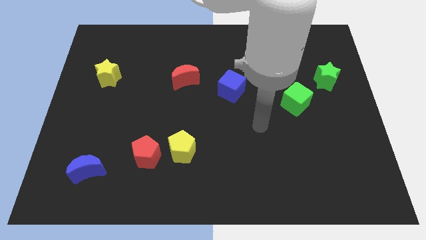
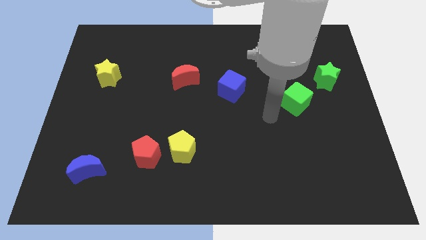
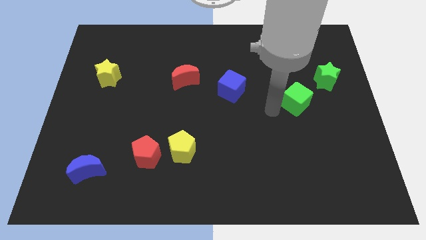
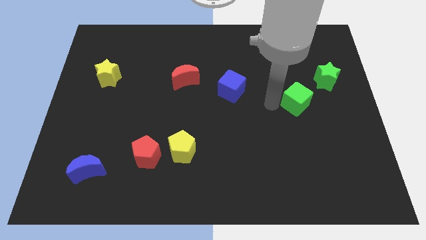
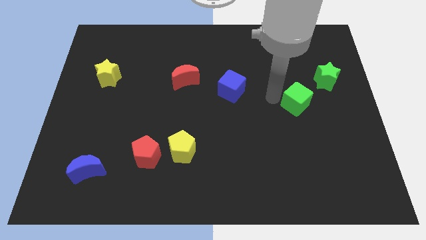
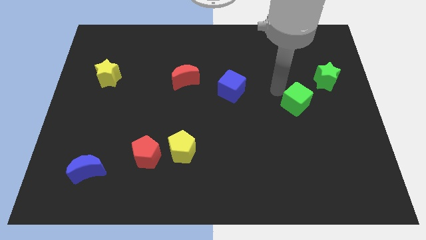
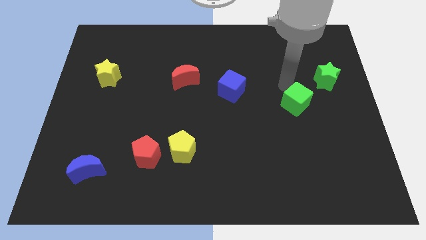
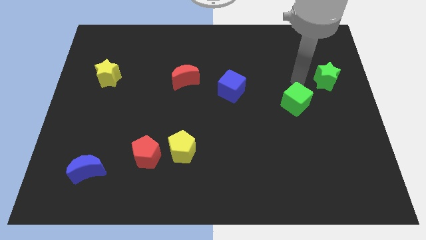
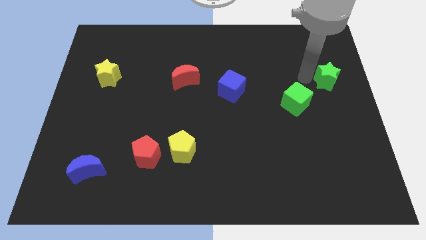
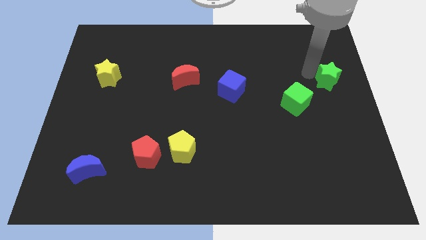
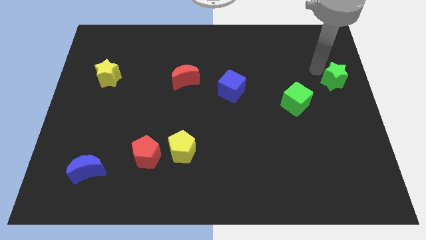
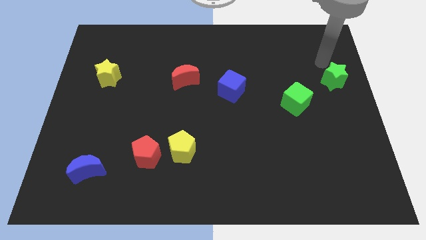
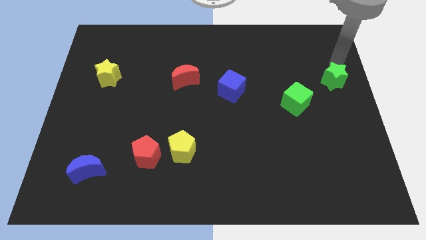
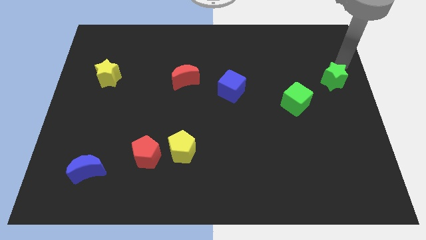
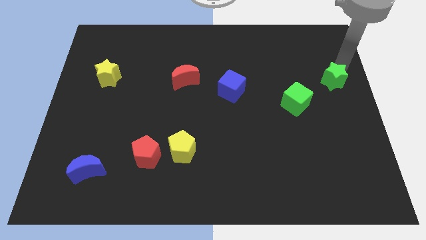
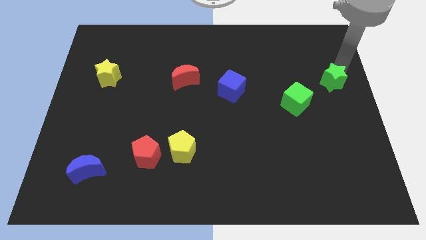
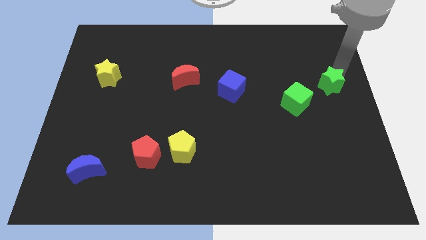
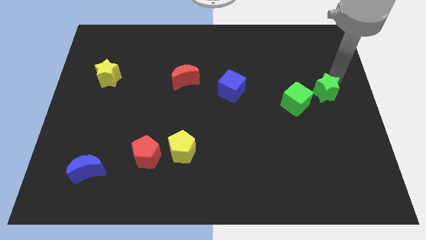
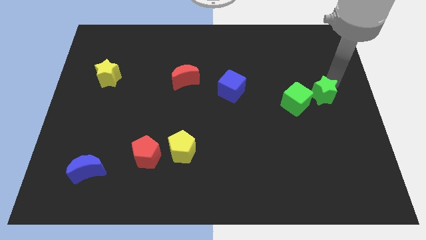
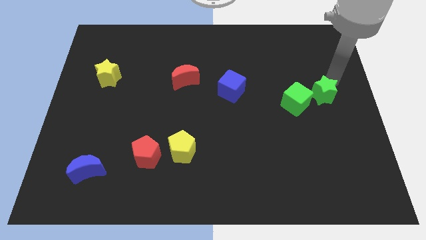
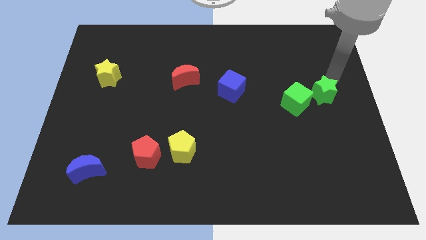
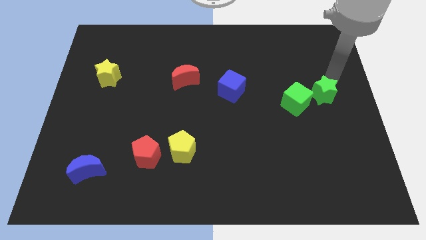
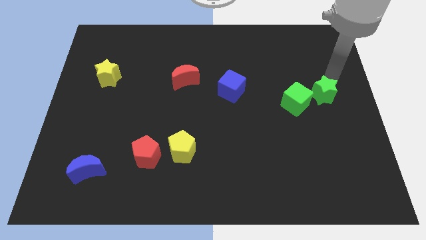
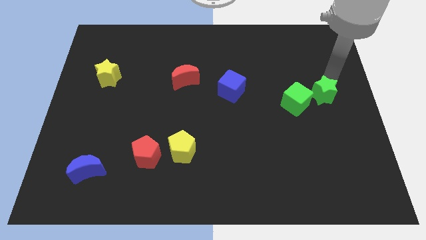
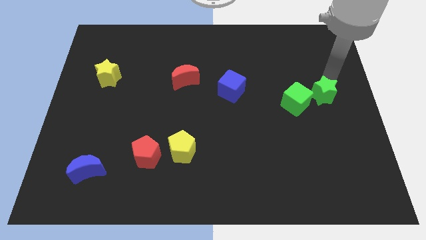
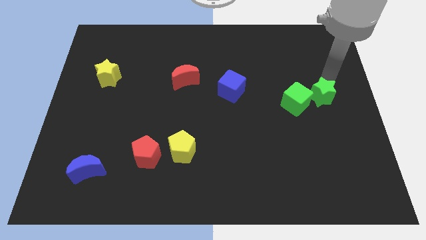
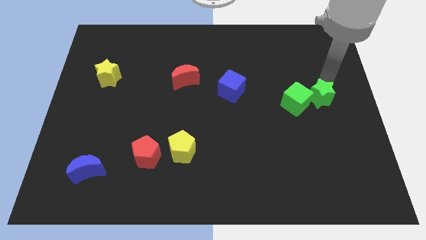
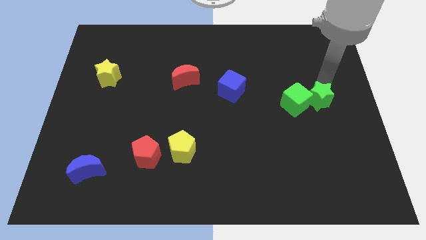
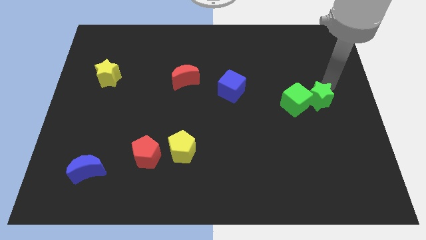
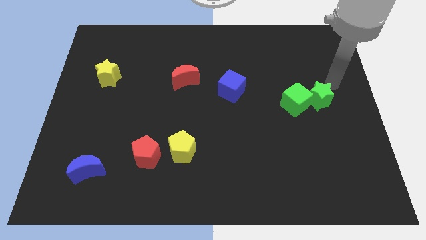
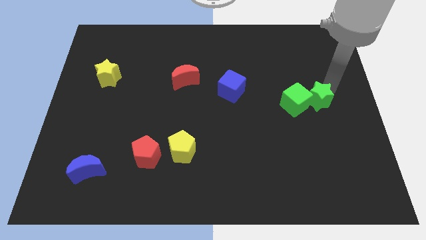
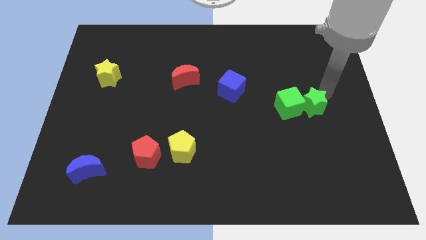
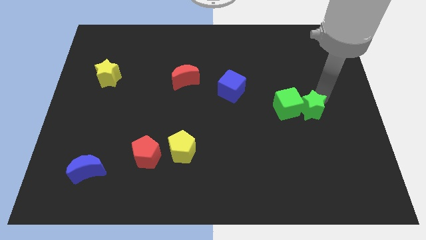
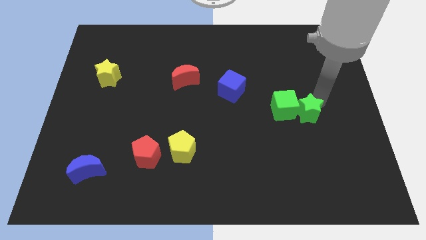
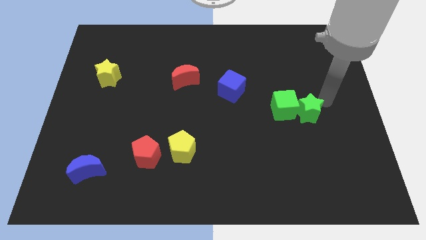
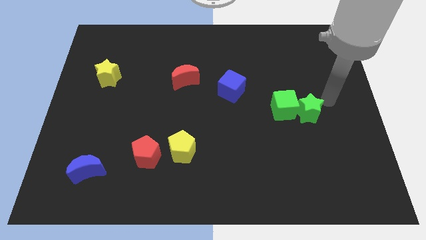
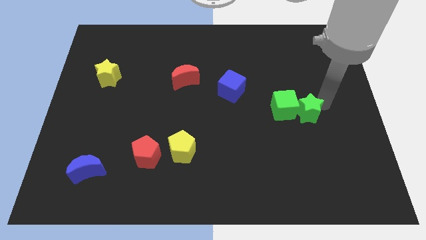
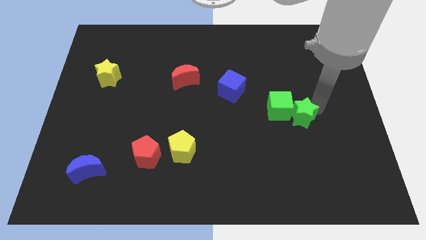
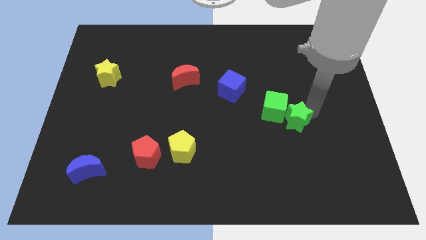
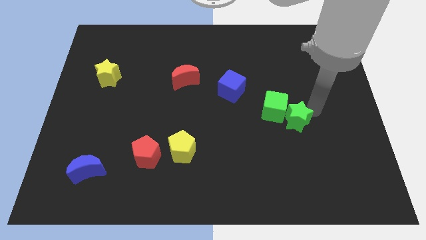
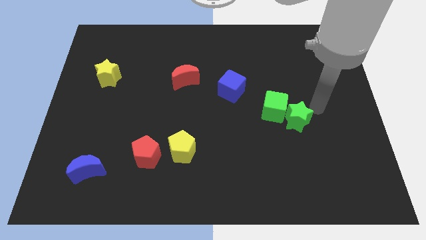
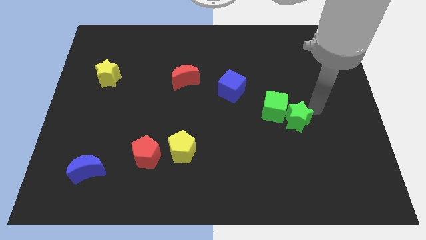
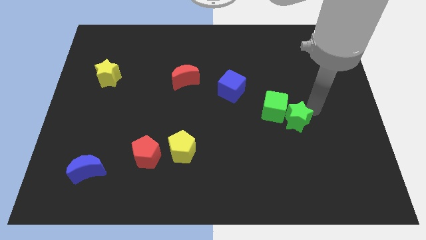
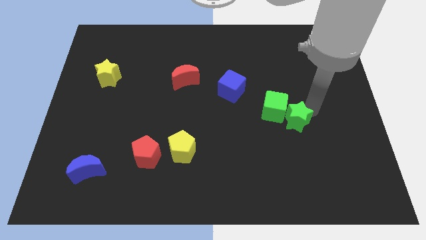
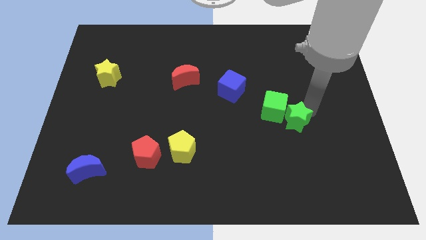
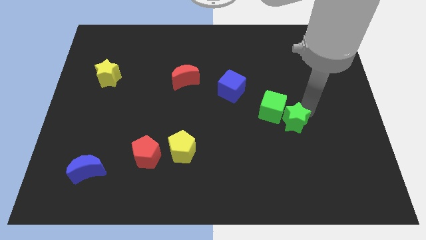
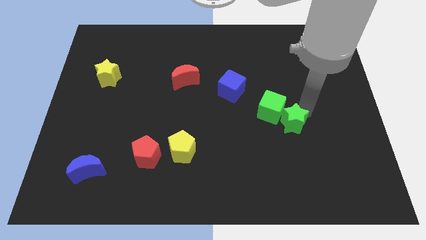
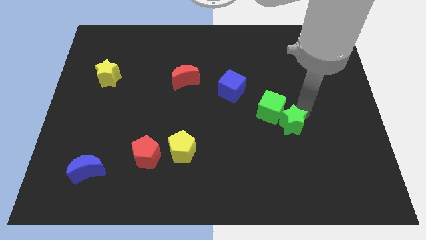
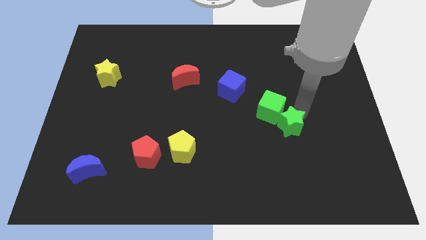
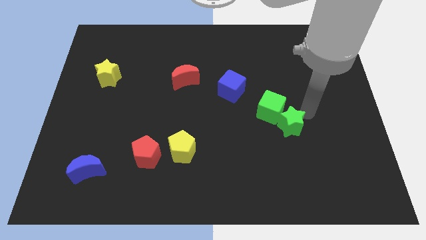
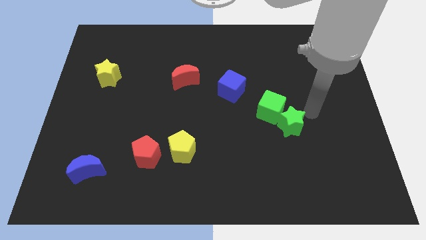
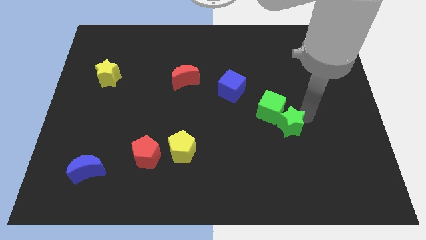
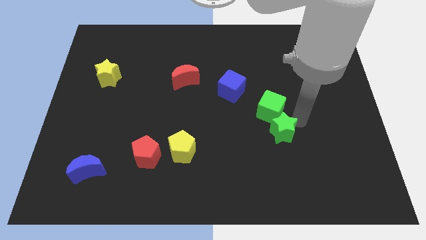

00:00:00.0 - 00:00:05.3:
push the green star down and then to the left

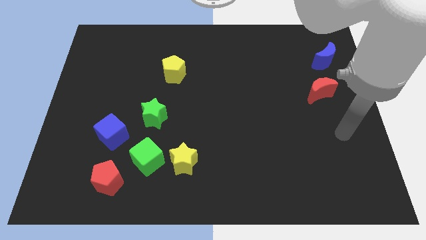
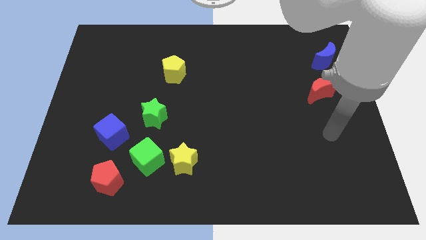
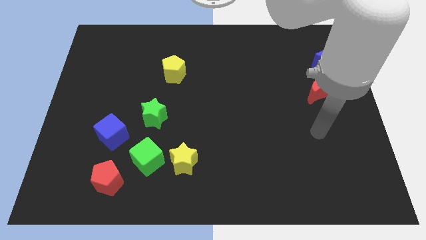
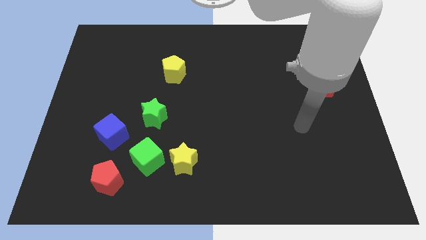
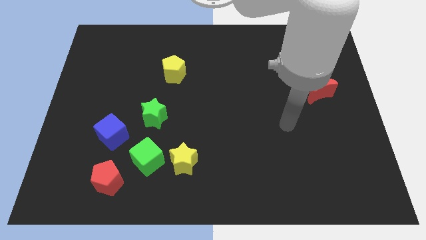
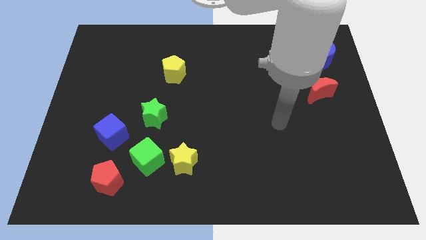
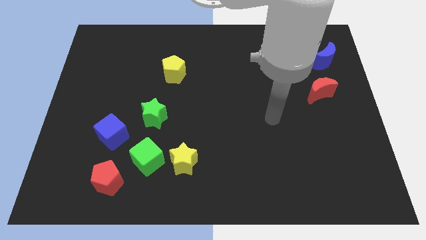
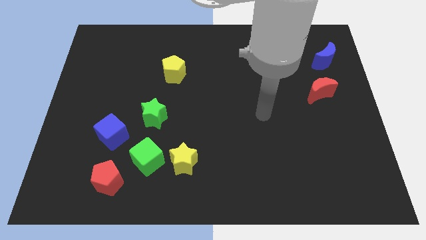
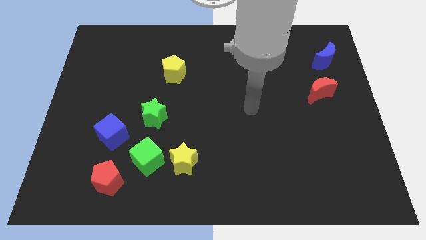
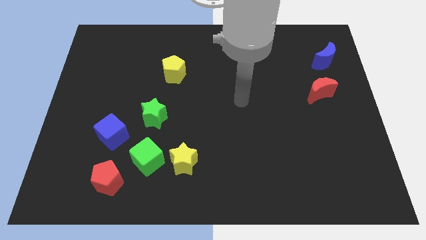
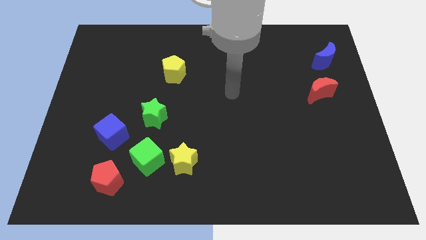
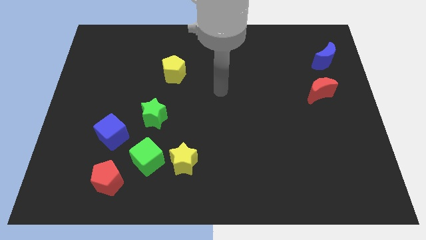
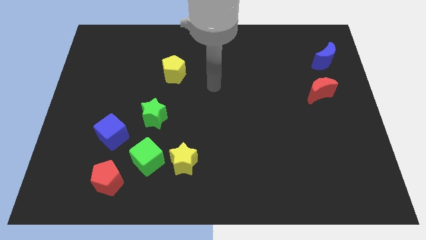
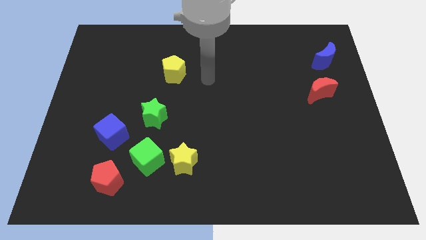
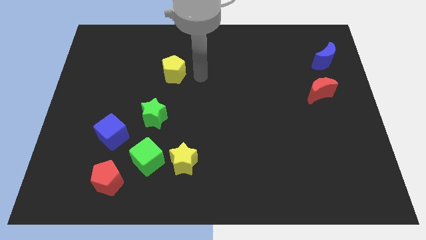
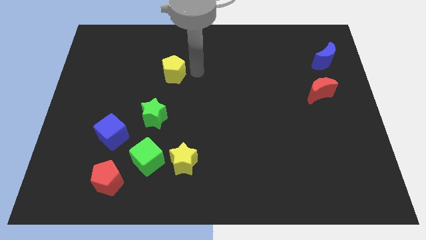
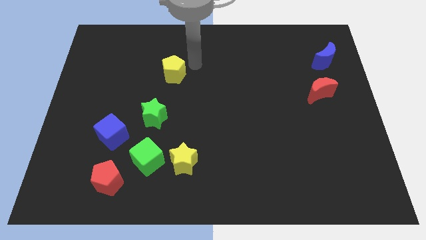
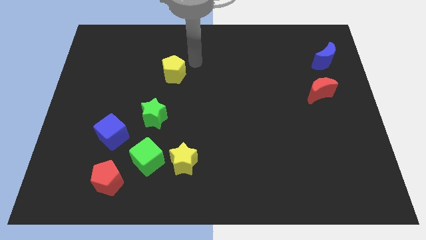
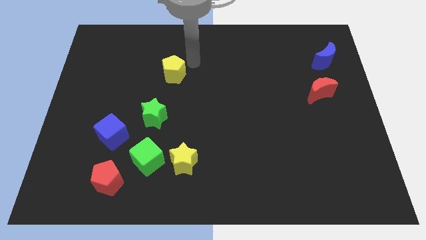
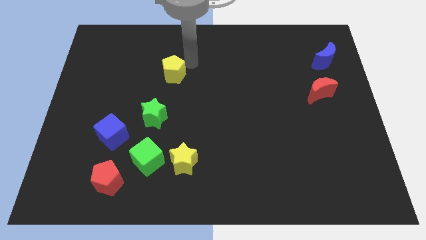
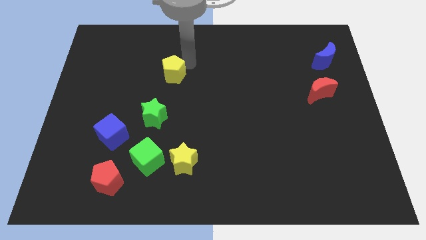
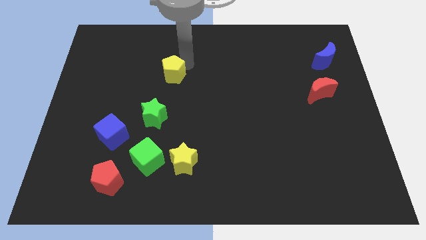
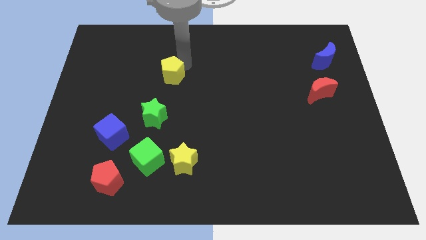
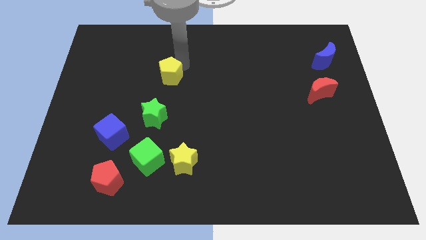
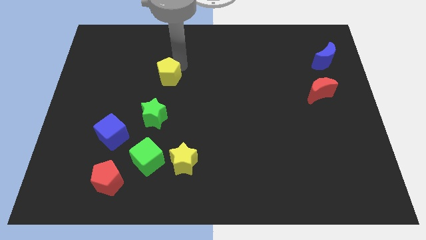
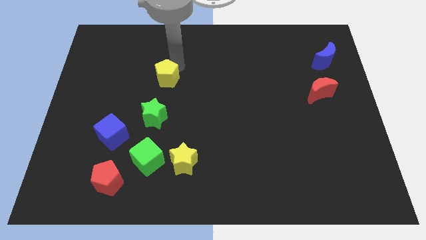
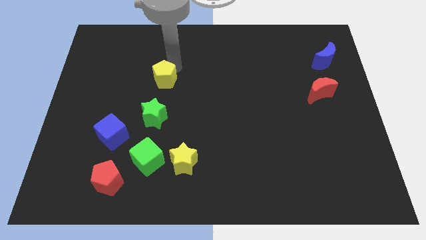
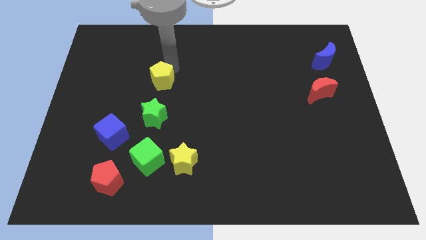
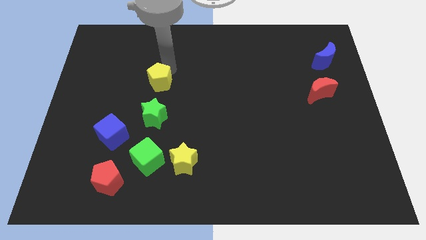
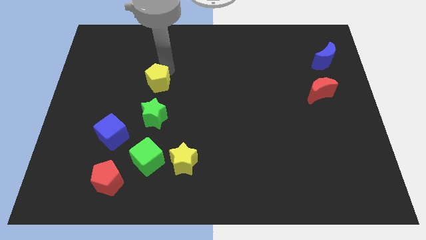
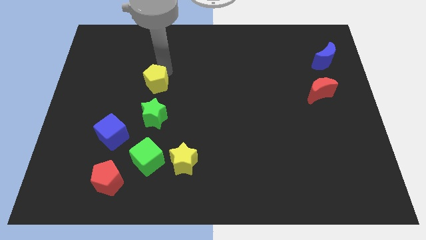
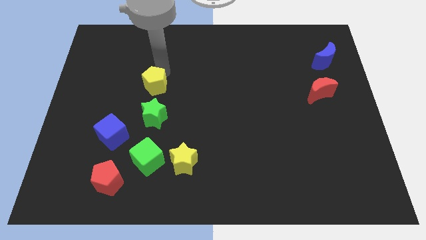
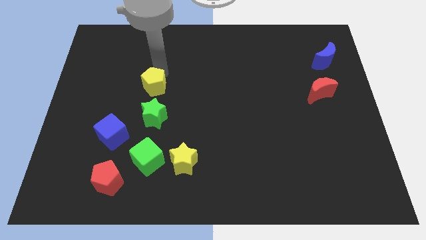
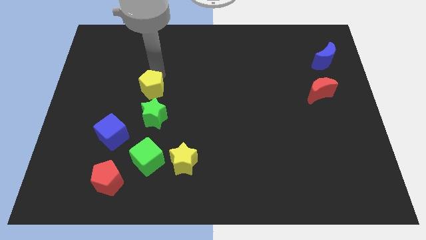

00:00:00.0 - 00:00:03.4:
move the yellow pentagon downwards and then to the left somewhat
